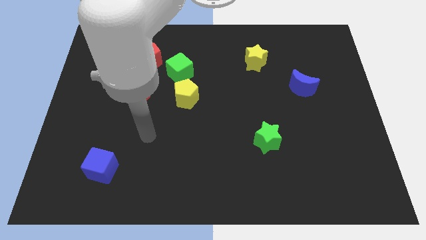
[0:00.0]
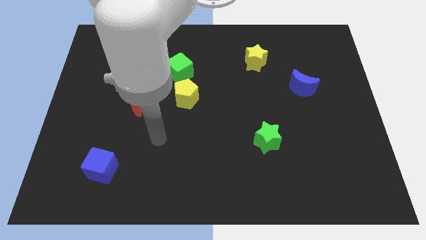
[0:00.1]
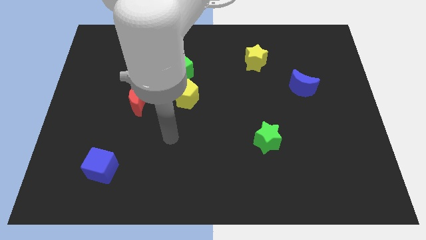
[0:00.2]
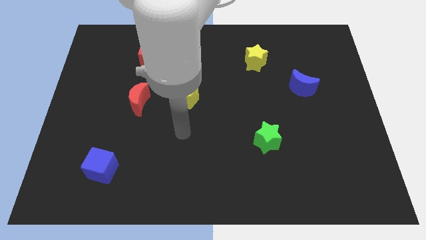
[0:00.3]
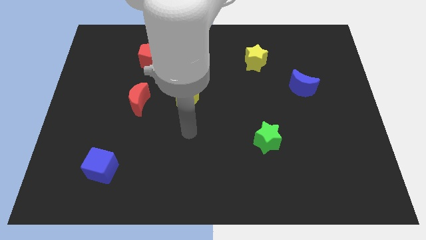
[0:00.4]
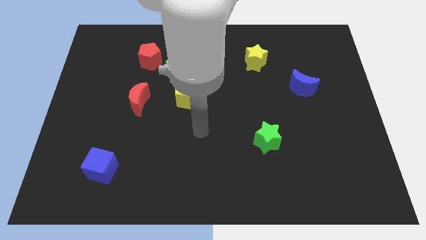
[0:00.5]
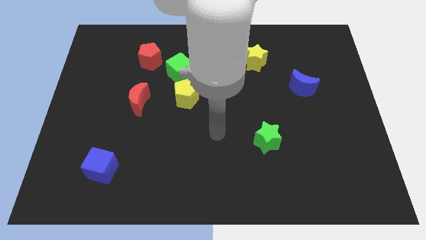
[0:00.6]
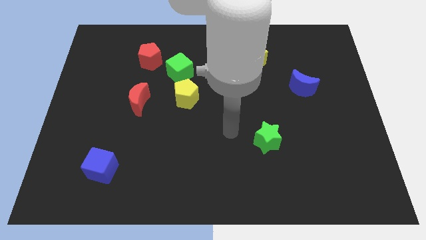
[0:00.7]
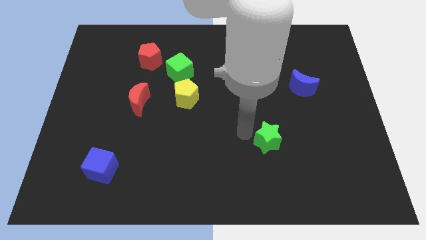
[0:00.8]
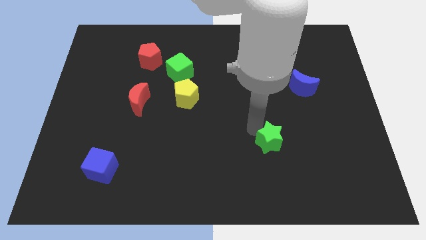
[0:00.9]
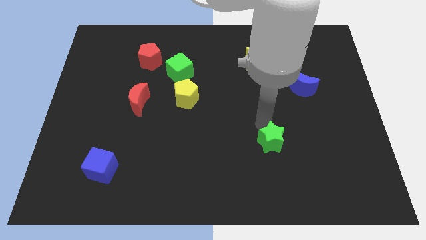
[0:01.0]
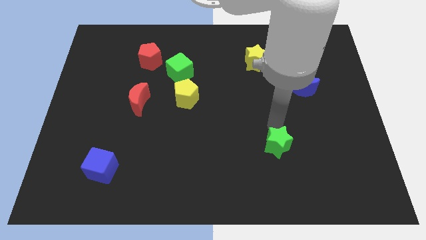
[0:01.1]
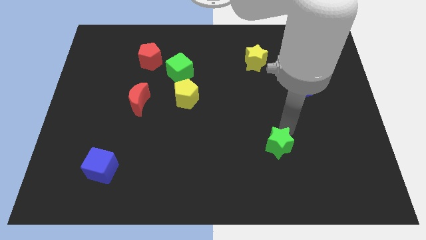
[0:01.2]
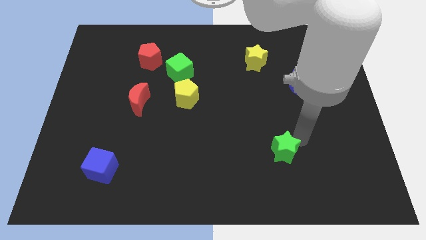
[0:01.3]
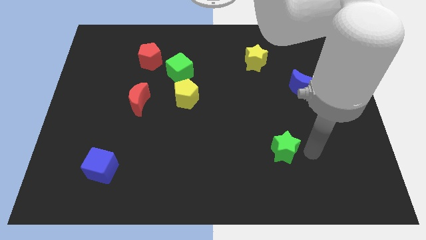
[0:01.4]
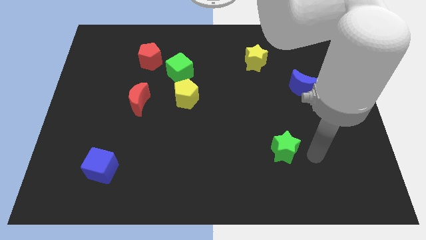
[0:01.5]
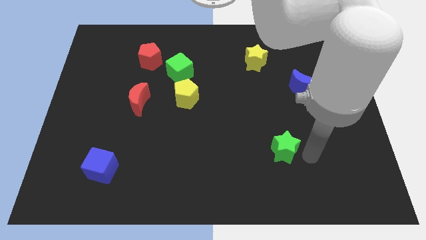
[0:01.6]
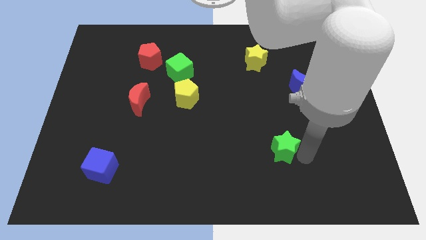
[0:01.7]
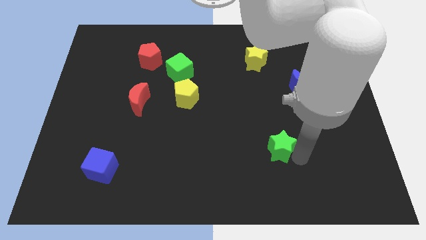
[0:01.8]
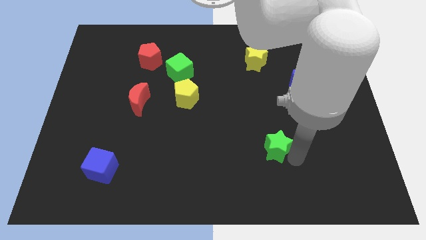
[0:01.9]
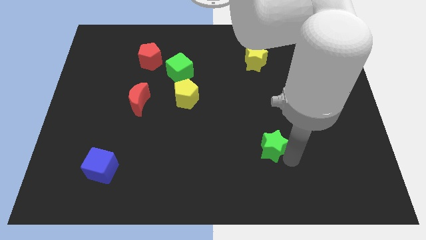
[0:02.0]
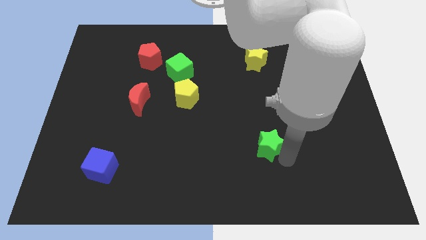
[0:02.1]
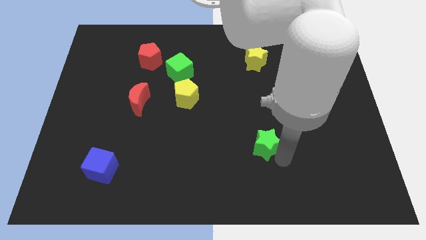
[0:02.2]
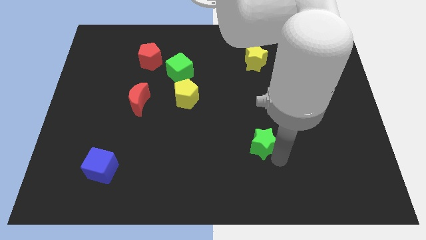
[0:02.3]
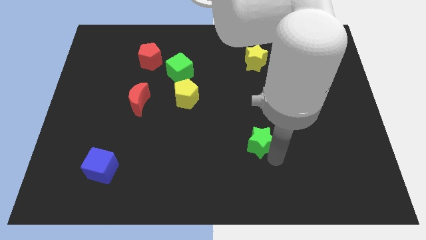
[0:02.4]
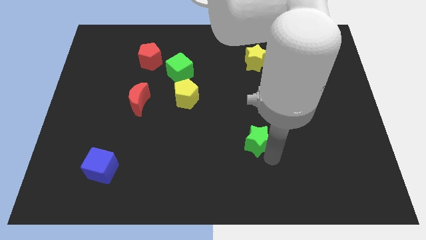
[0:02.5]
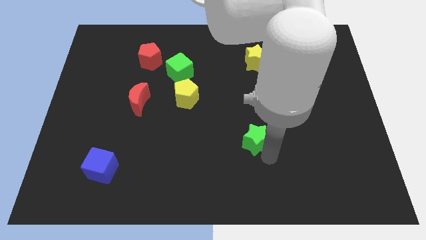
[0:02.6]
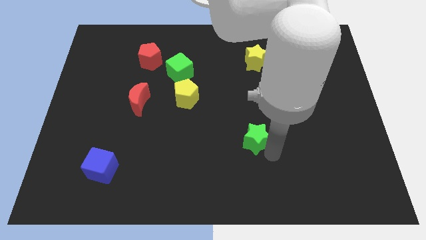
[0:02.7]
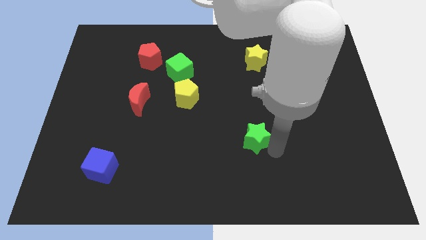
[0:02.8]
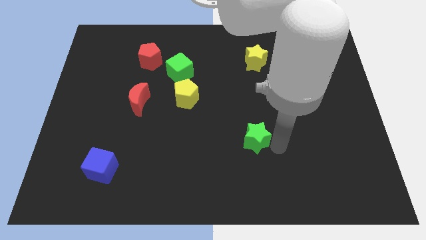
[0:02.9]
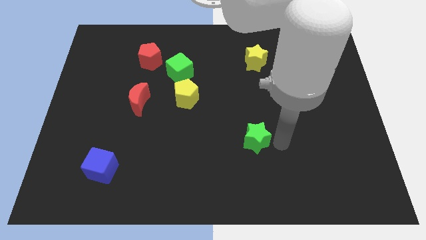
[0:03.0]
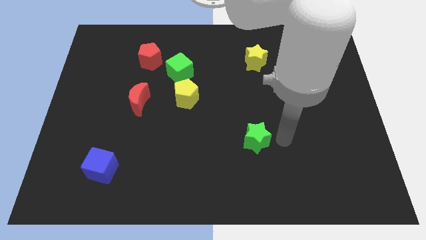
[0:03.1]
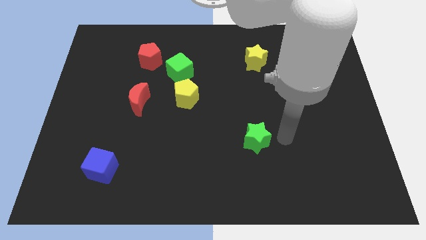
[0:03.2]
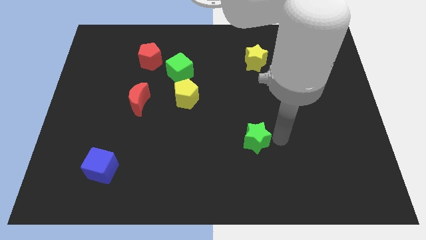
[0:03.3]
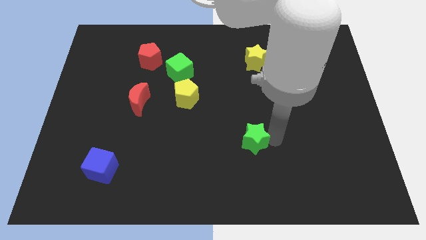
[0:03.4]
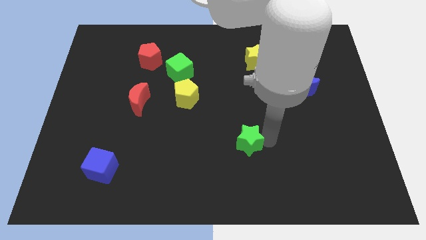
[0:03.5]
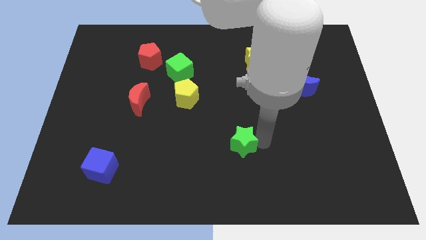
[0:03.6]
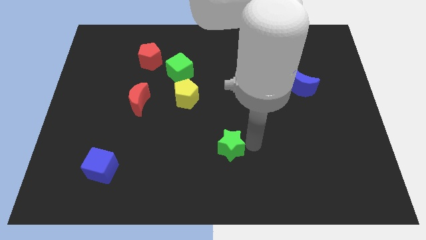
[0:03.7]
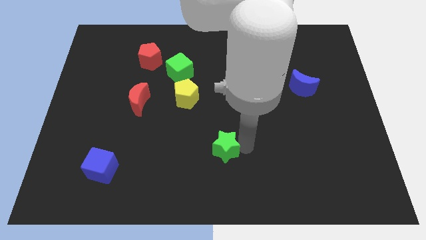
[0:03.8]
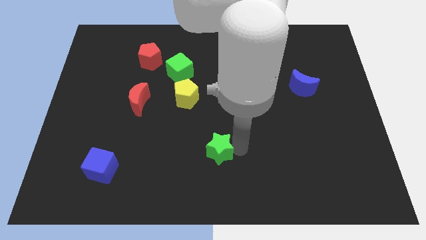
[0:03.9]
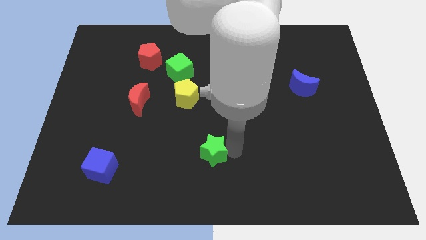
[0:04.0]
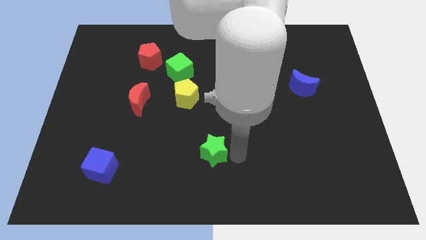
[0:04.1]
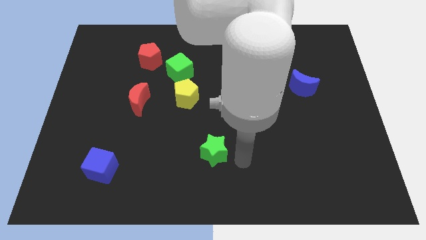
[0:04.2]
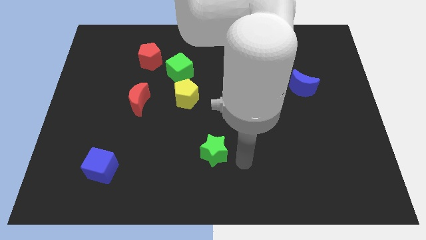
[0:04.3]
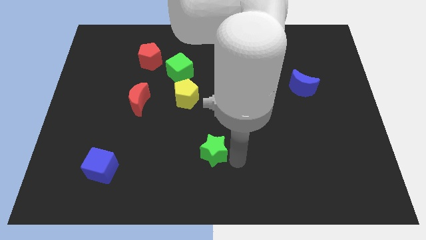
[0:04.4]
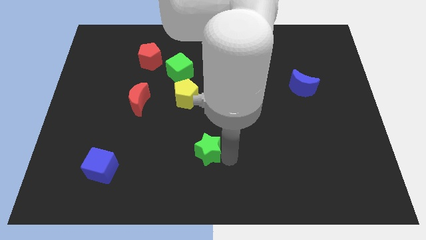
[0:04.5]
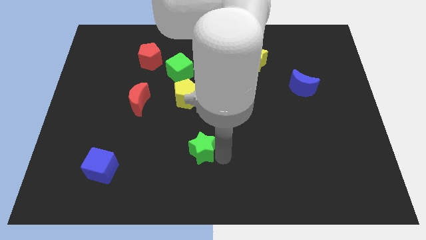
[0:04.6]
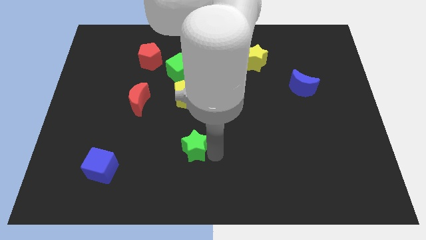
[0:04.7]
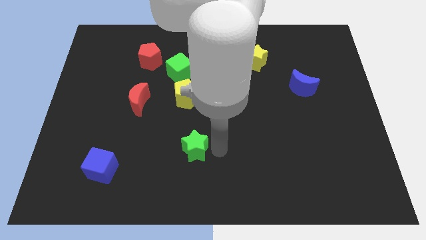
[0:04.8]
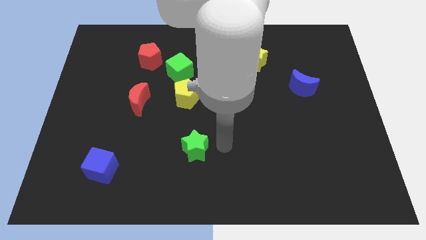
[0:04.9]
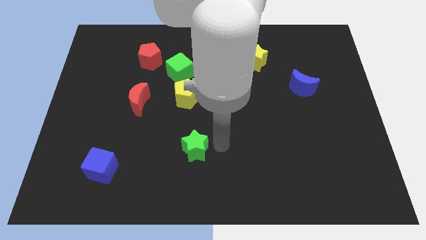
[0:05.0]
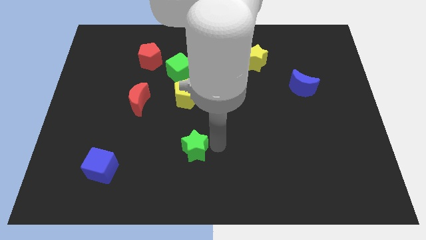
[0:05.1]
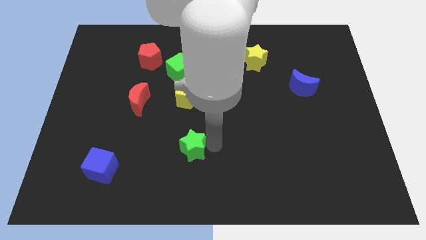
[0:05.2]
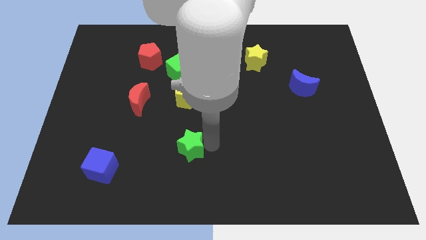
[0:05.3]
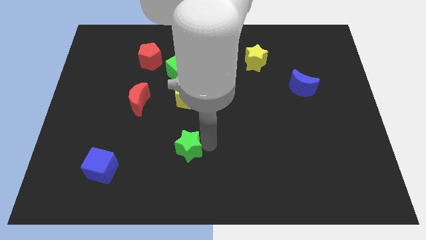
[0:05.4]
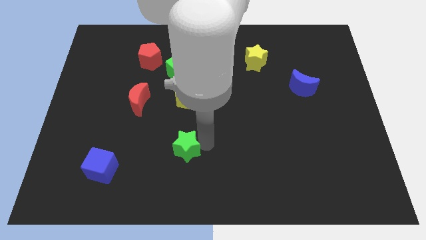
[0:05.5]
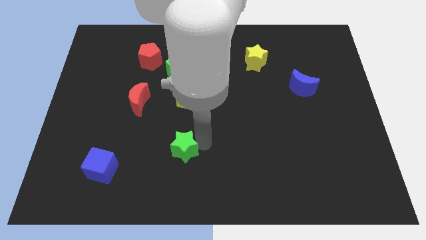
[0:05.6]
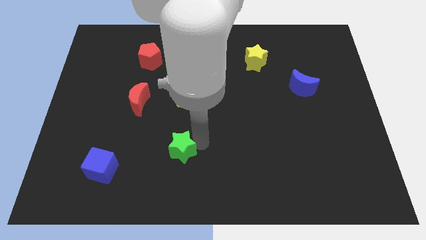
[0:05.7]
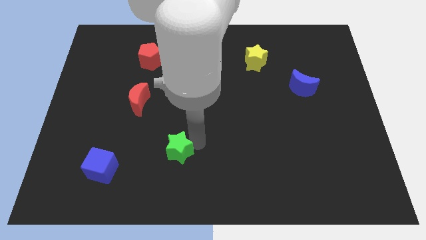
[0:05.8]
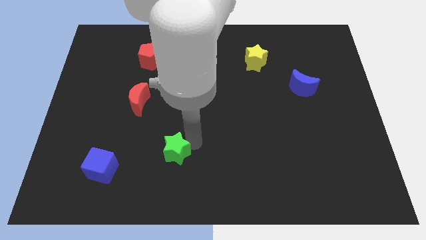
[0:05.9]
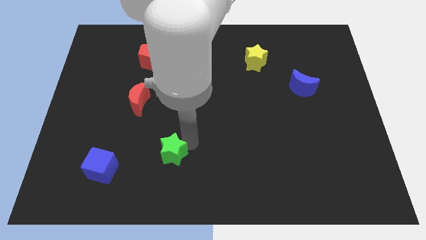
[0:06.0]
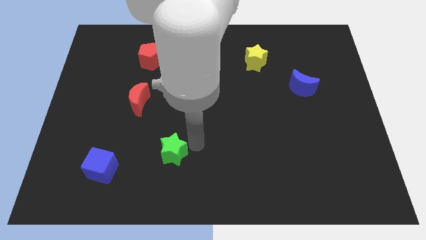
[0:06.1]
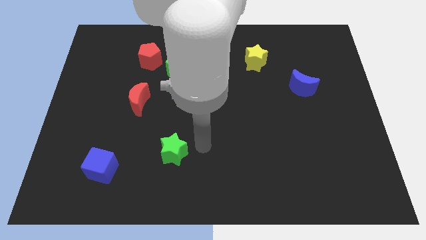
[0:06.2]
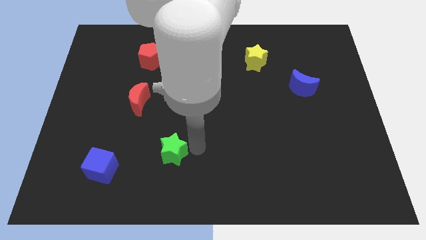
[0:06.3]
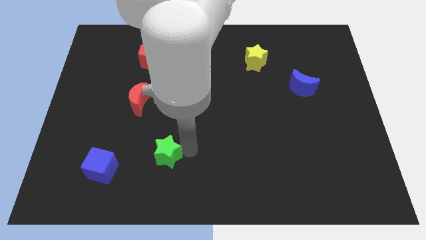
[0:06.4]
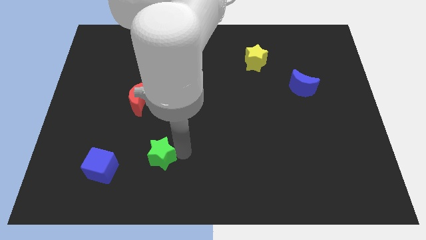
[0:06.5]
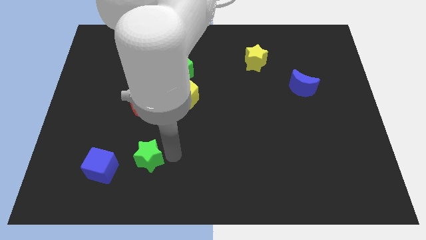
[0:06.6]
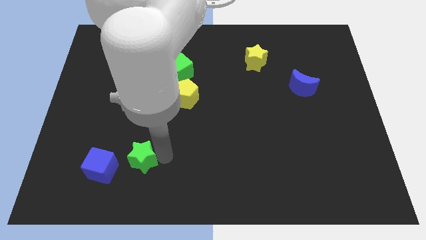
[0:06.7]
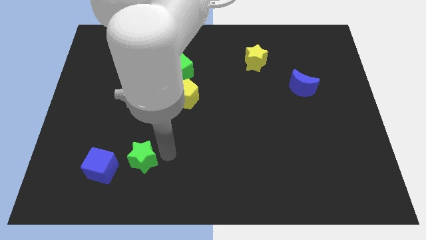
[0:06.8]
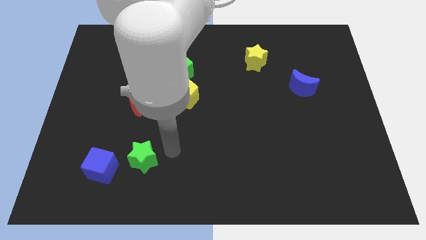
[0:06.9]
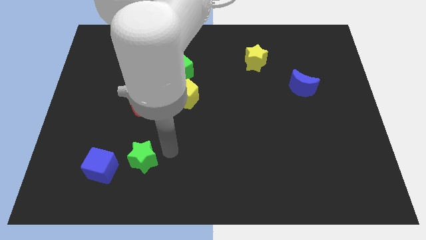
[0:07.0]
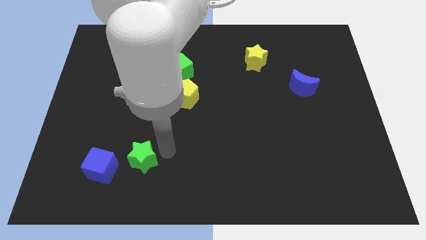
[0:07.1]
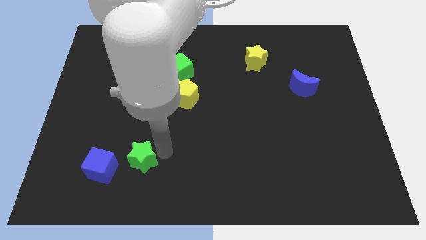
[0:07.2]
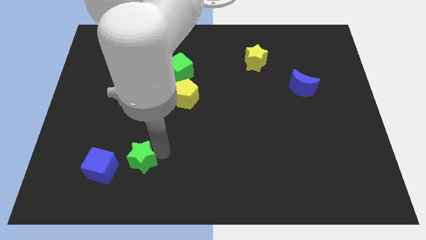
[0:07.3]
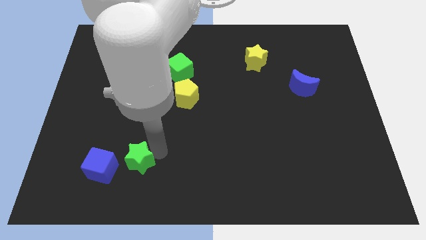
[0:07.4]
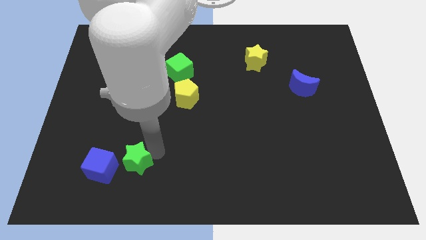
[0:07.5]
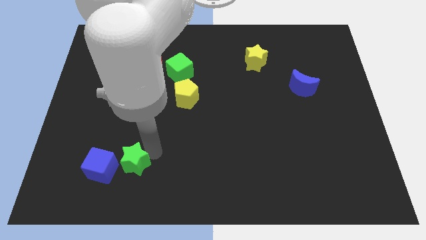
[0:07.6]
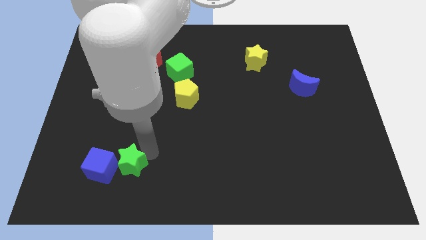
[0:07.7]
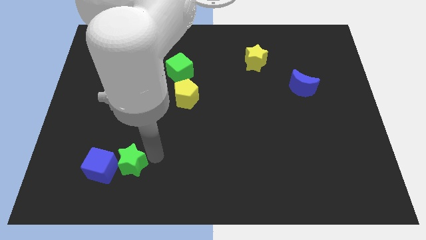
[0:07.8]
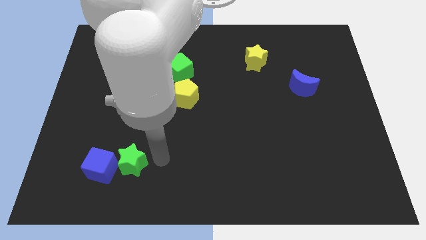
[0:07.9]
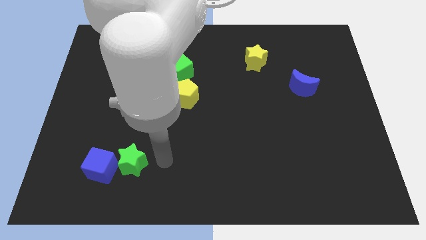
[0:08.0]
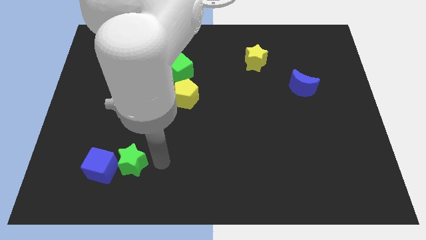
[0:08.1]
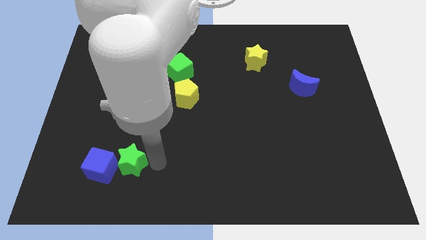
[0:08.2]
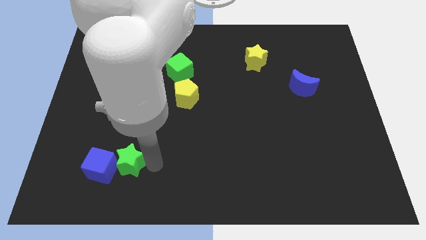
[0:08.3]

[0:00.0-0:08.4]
move the green star next to the blue cube
